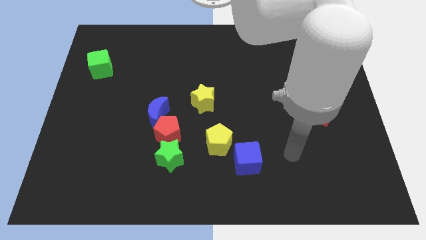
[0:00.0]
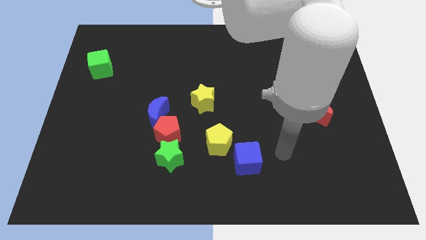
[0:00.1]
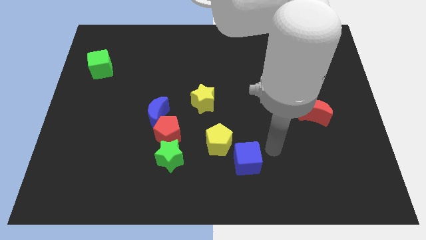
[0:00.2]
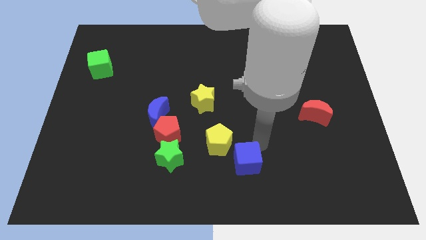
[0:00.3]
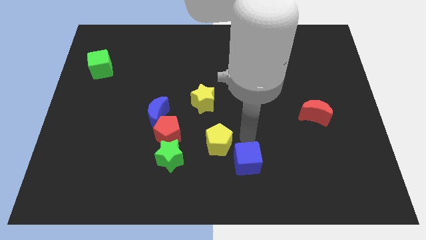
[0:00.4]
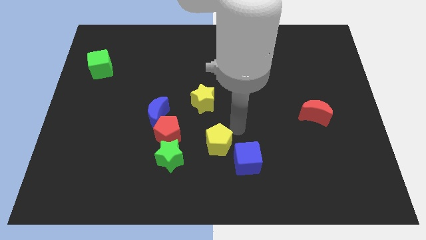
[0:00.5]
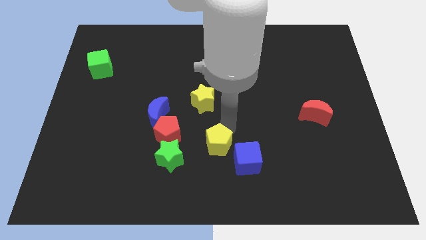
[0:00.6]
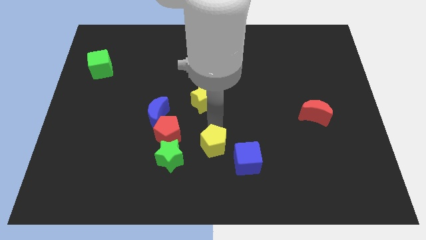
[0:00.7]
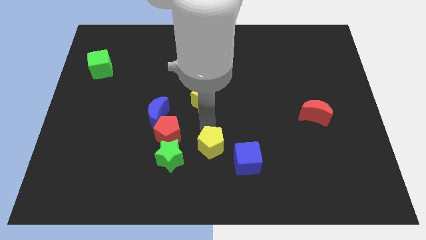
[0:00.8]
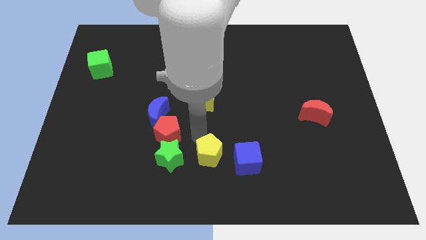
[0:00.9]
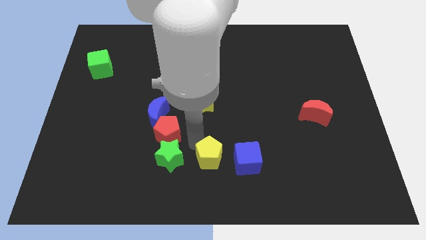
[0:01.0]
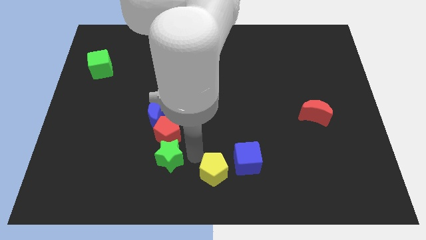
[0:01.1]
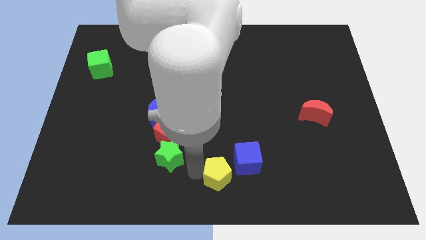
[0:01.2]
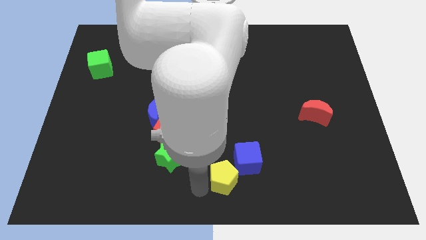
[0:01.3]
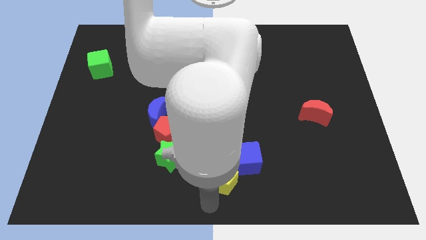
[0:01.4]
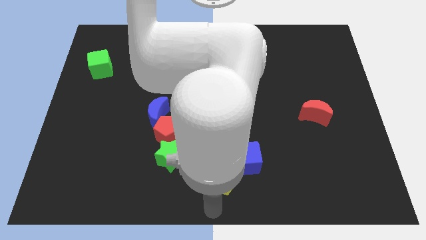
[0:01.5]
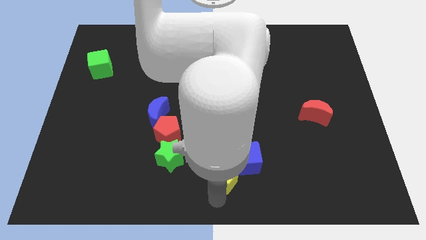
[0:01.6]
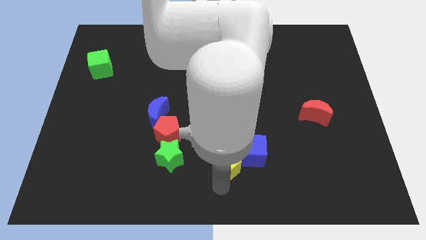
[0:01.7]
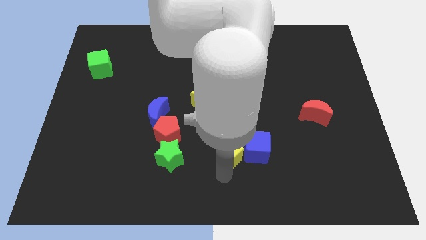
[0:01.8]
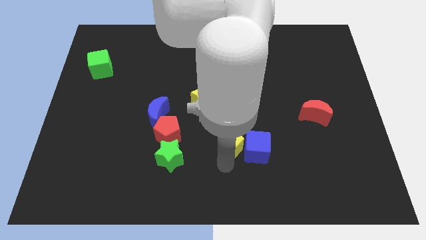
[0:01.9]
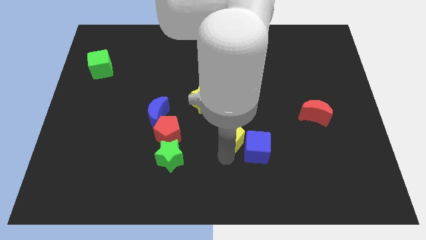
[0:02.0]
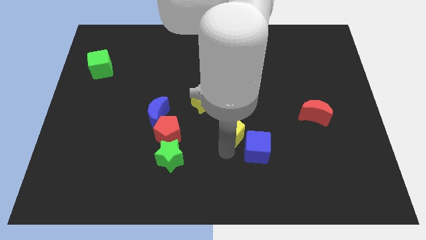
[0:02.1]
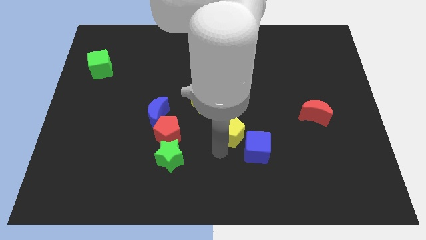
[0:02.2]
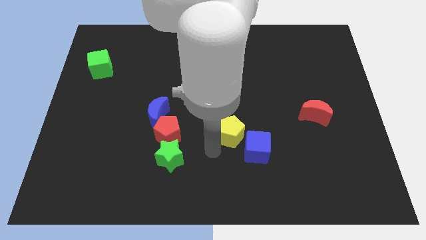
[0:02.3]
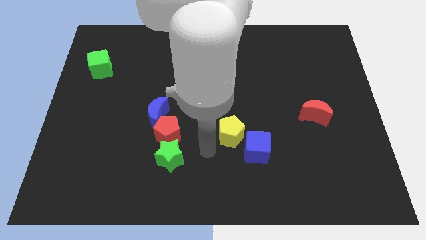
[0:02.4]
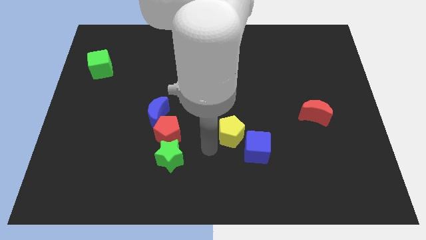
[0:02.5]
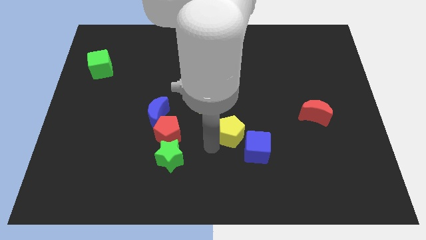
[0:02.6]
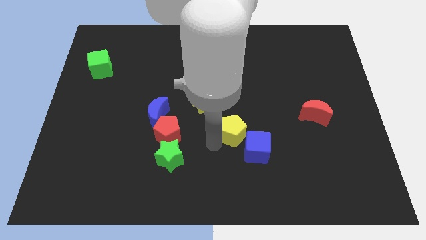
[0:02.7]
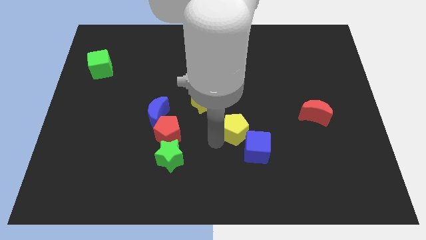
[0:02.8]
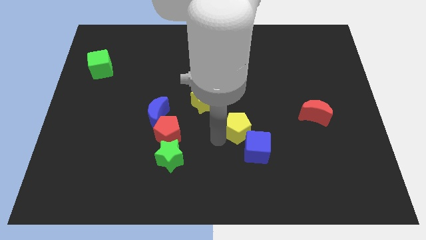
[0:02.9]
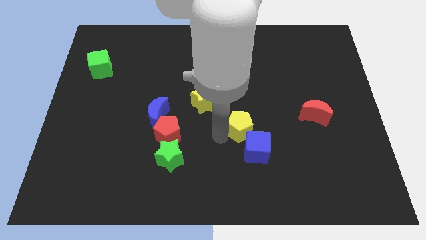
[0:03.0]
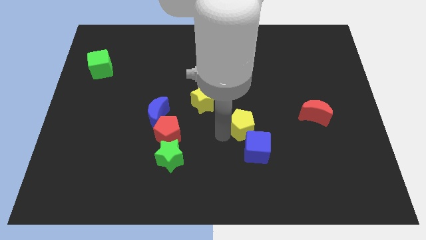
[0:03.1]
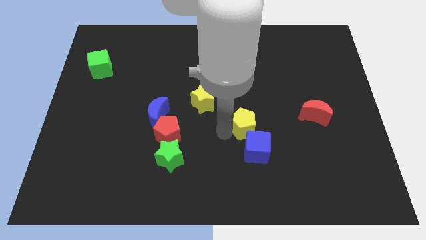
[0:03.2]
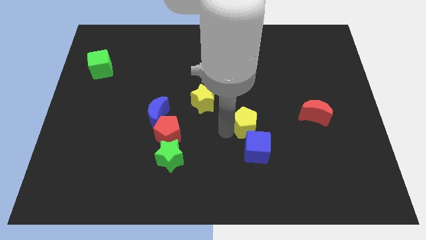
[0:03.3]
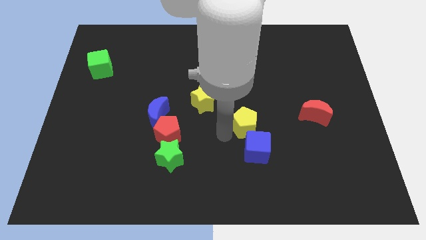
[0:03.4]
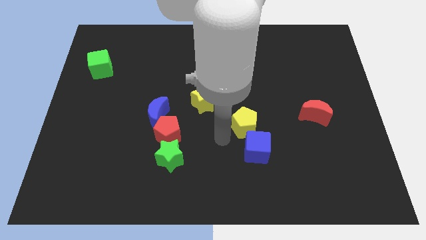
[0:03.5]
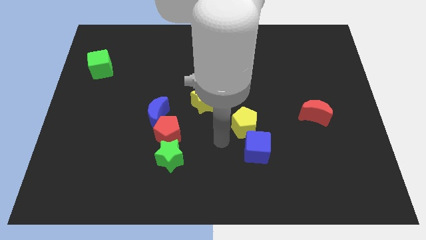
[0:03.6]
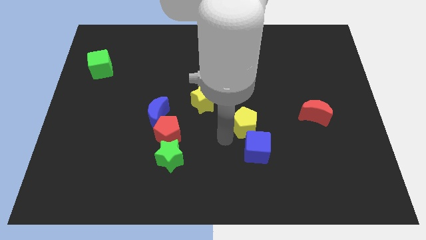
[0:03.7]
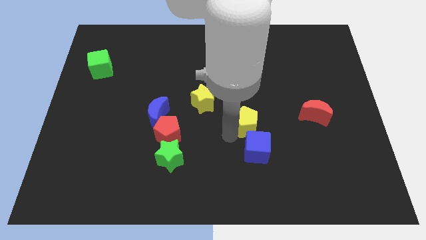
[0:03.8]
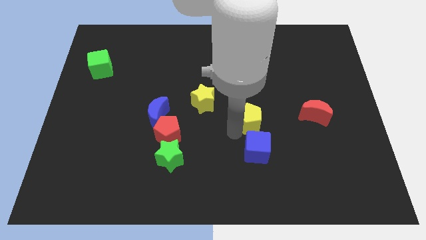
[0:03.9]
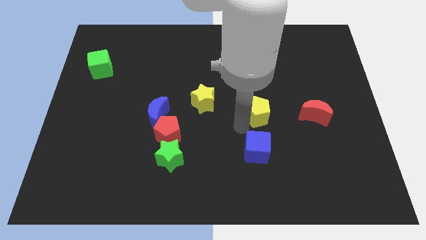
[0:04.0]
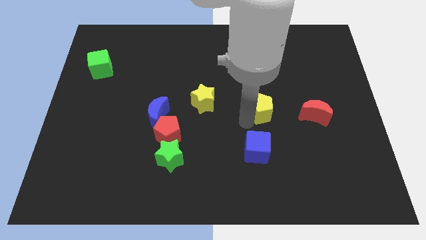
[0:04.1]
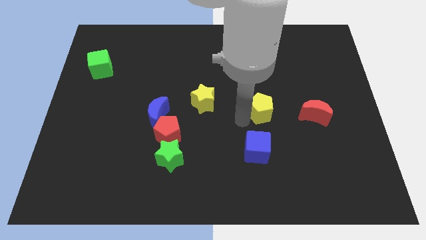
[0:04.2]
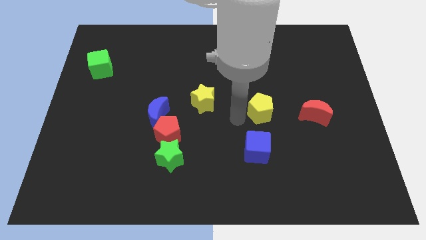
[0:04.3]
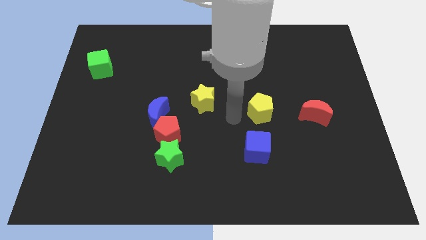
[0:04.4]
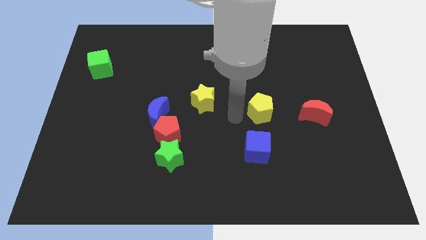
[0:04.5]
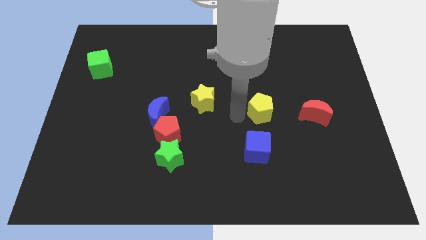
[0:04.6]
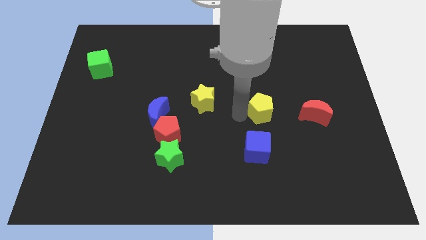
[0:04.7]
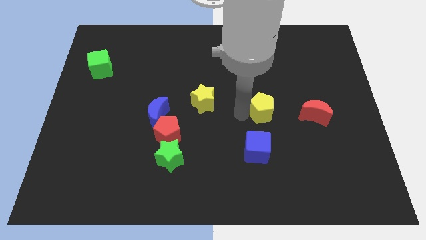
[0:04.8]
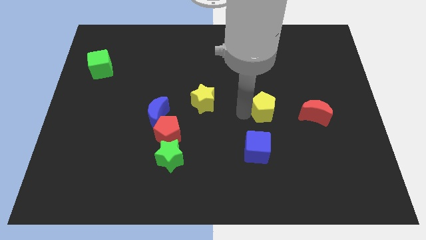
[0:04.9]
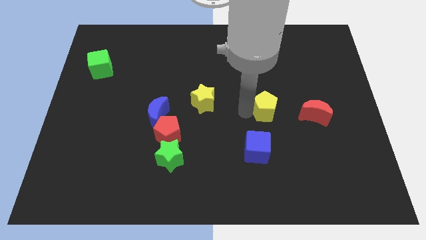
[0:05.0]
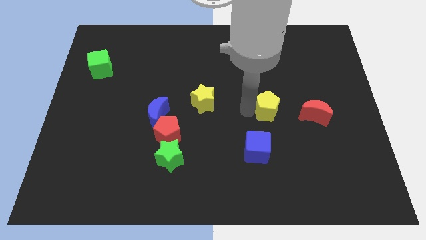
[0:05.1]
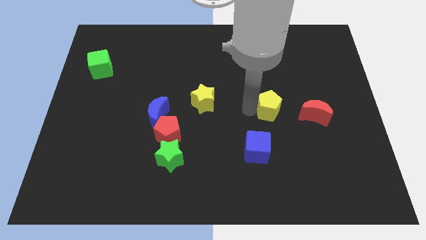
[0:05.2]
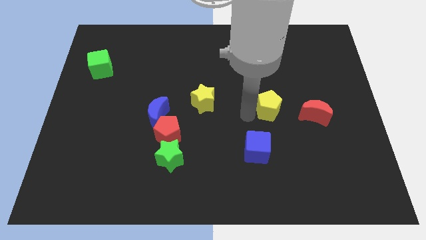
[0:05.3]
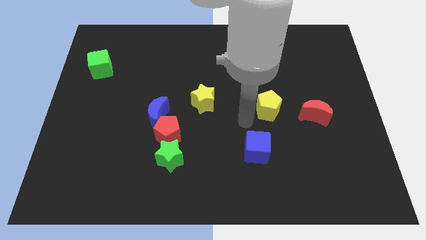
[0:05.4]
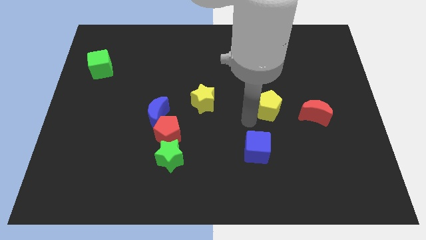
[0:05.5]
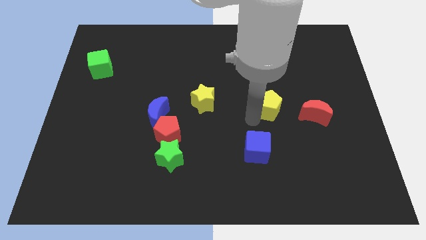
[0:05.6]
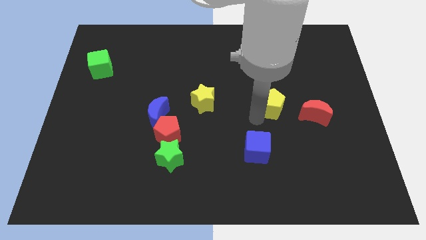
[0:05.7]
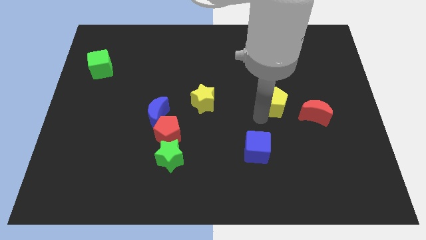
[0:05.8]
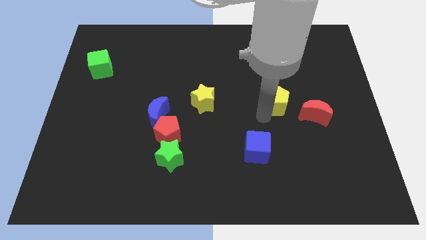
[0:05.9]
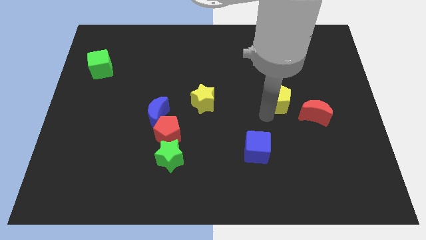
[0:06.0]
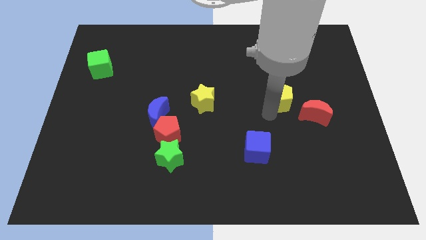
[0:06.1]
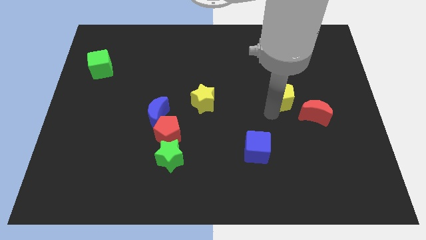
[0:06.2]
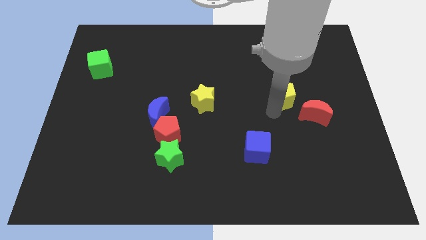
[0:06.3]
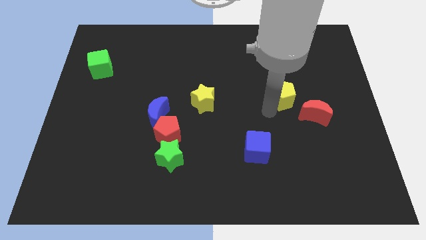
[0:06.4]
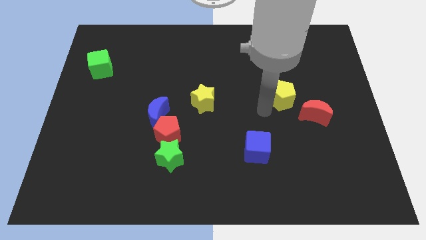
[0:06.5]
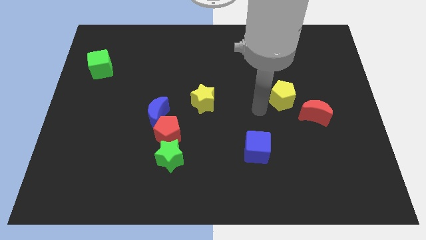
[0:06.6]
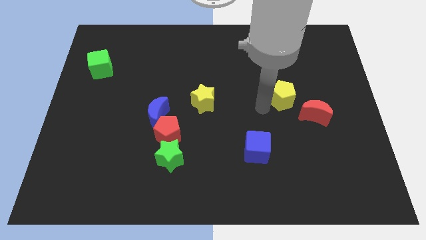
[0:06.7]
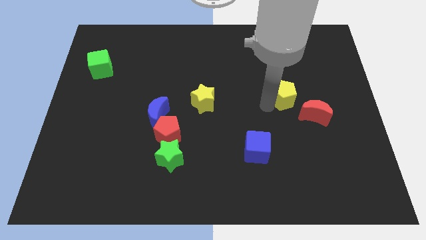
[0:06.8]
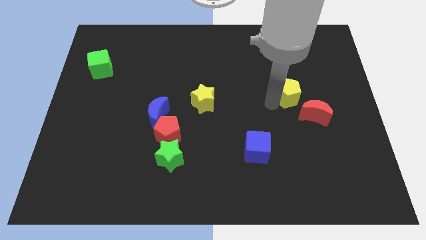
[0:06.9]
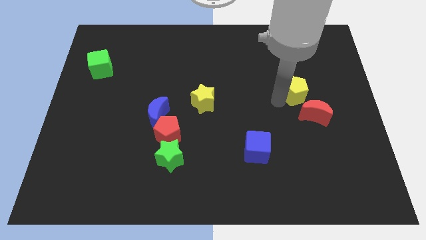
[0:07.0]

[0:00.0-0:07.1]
move the yellow pentagon to the top side of the red moon
